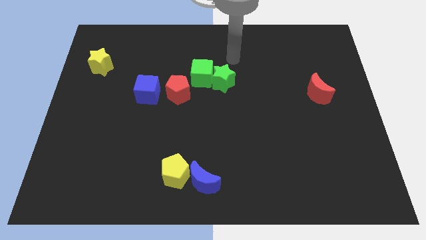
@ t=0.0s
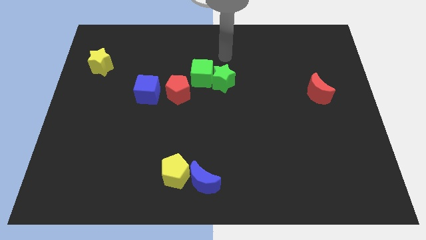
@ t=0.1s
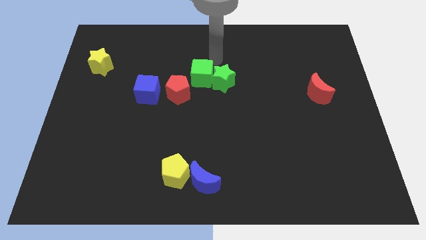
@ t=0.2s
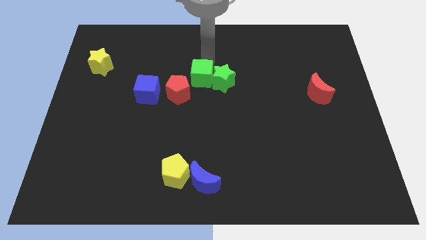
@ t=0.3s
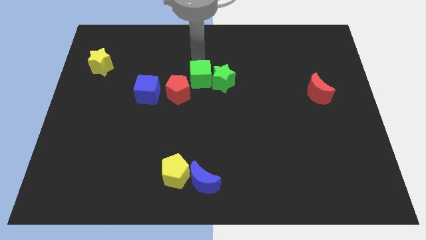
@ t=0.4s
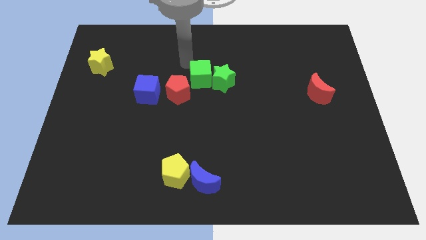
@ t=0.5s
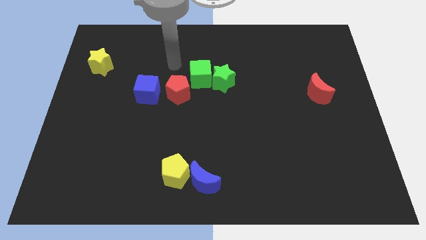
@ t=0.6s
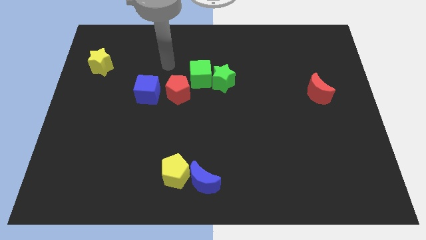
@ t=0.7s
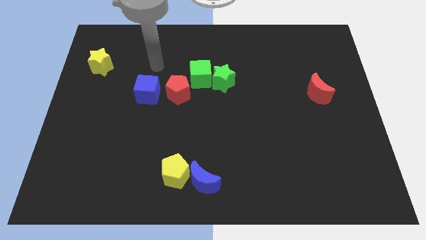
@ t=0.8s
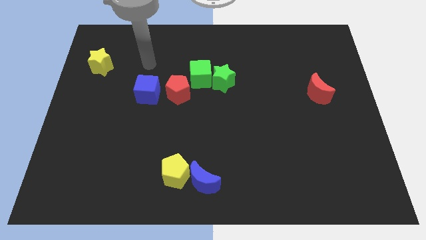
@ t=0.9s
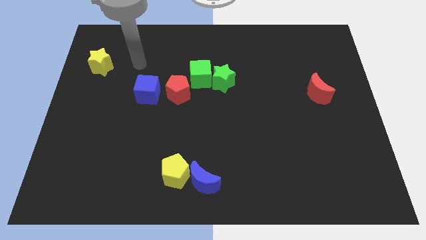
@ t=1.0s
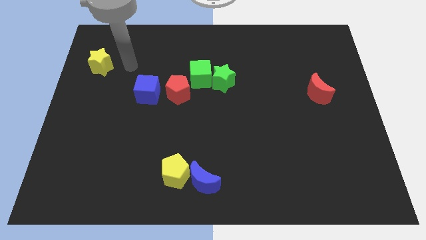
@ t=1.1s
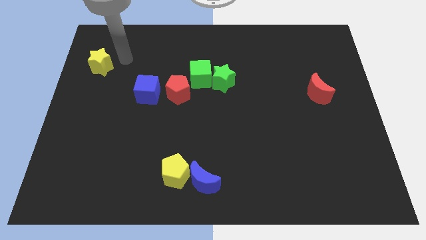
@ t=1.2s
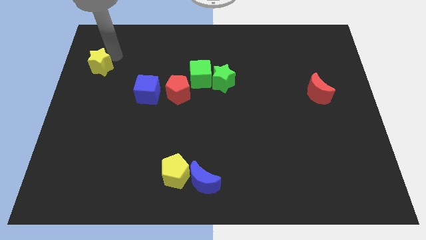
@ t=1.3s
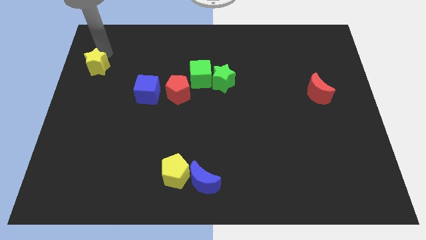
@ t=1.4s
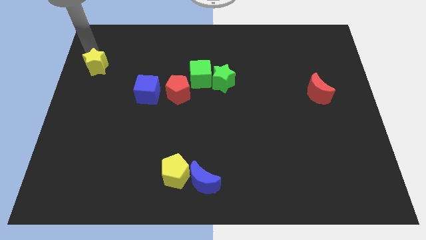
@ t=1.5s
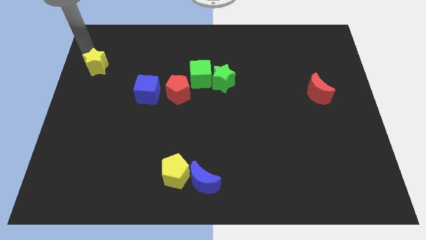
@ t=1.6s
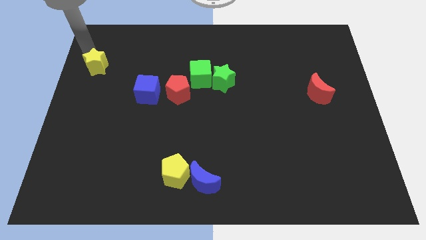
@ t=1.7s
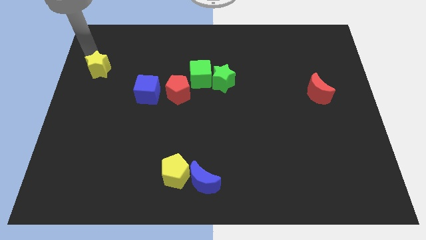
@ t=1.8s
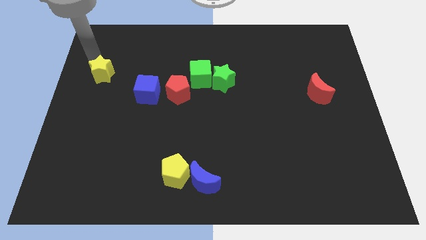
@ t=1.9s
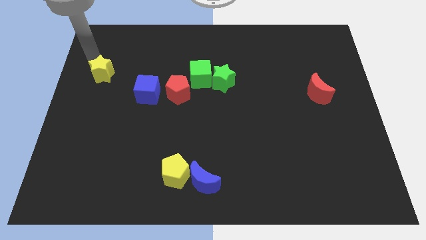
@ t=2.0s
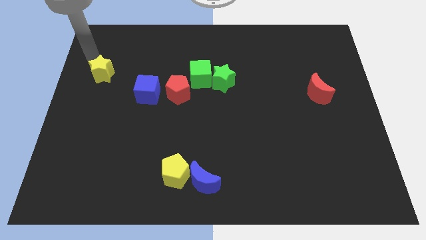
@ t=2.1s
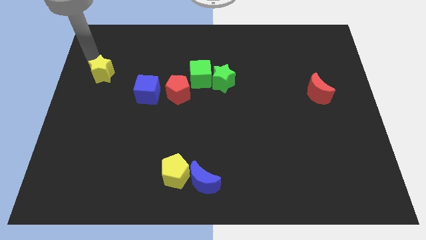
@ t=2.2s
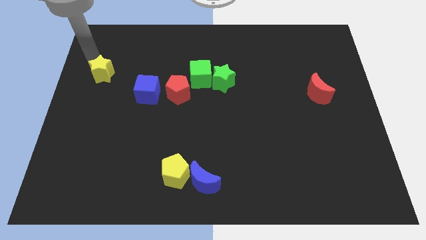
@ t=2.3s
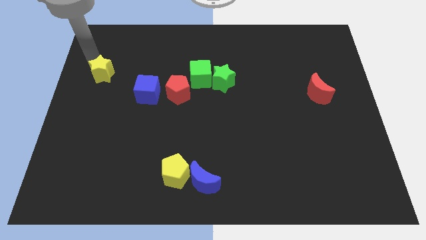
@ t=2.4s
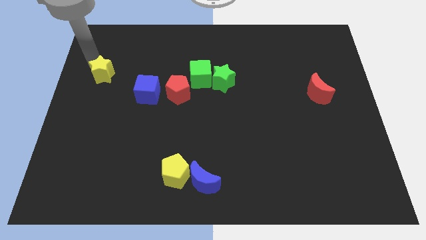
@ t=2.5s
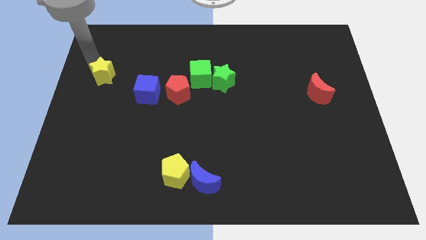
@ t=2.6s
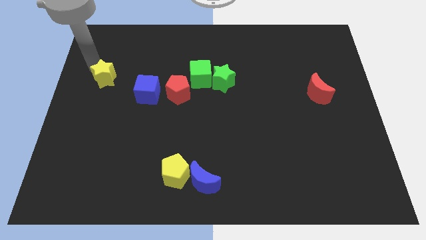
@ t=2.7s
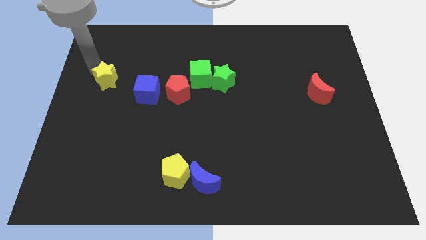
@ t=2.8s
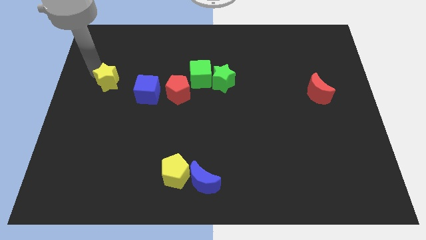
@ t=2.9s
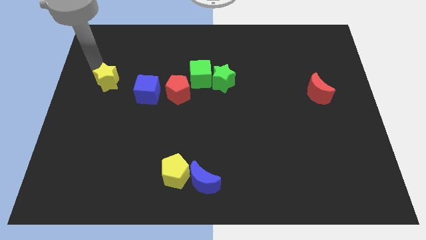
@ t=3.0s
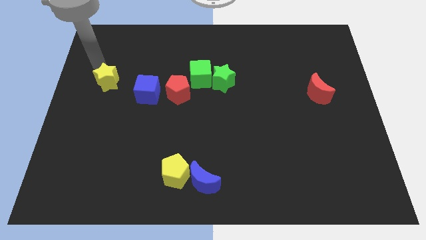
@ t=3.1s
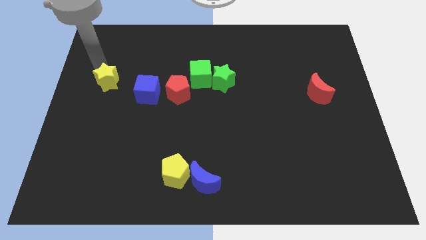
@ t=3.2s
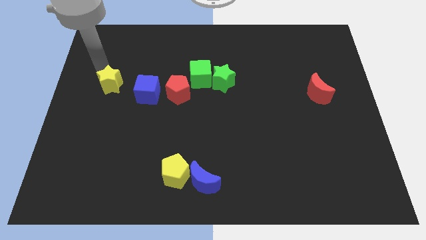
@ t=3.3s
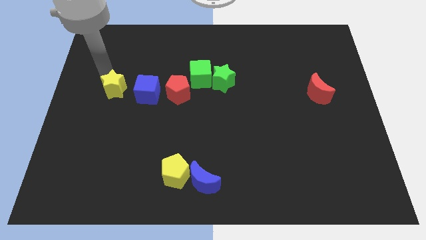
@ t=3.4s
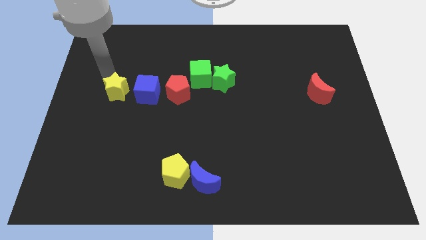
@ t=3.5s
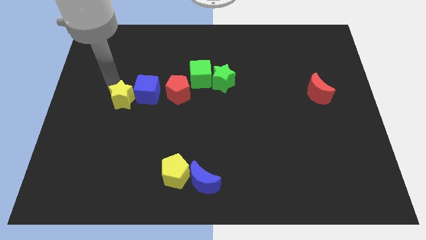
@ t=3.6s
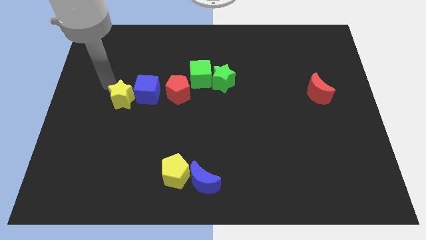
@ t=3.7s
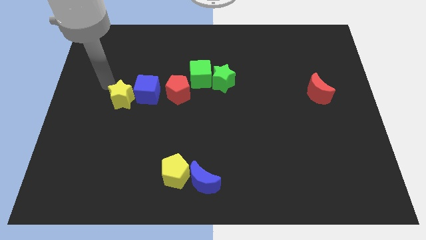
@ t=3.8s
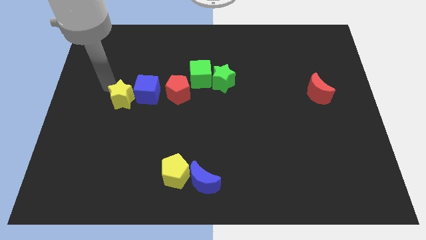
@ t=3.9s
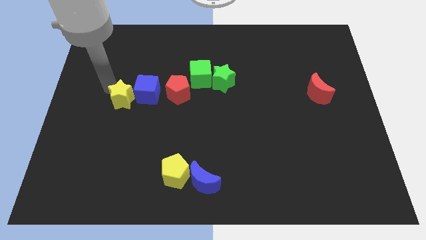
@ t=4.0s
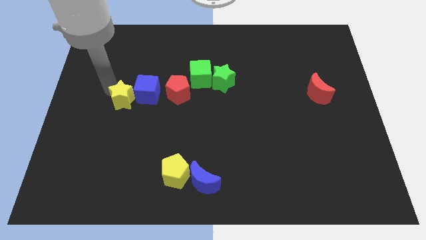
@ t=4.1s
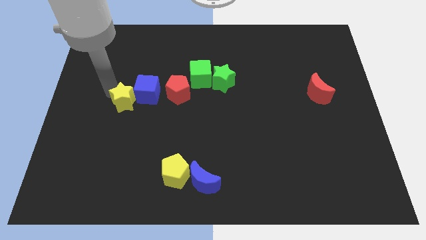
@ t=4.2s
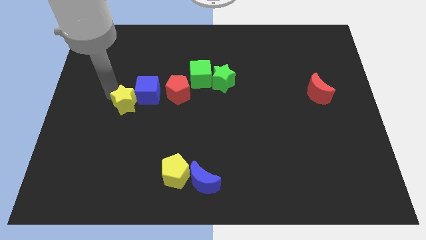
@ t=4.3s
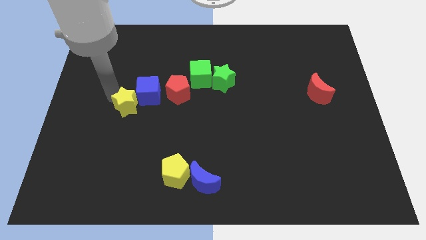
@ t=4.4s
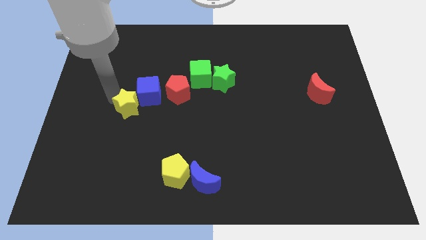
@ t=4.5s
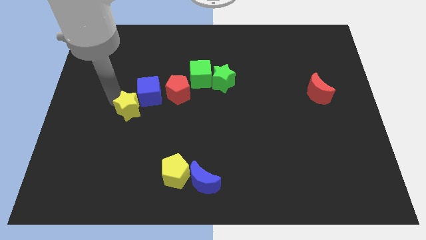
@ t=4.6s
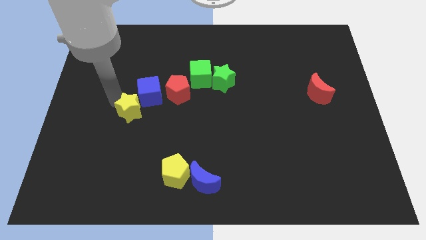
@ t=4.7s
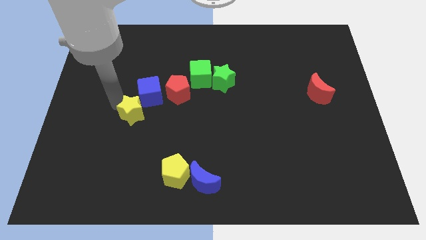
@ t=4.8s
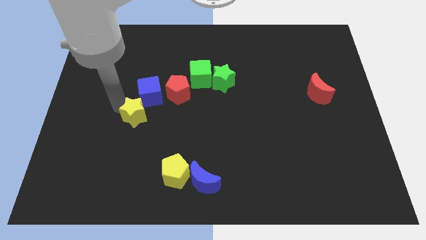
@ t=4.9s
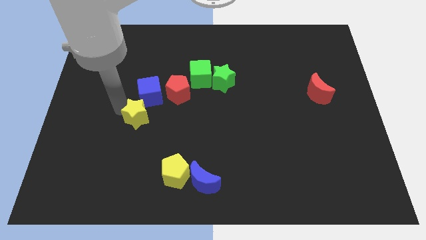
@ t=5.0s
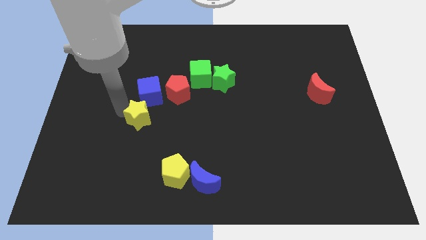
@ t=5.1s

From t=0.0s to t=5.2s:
move the yellow star downwards and right

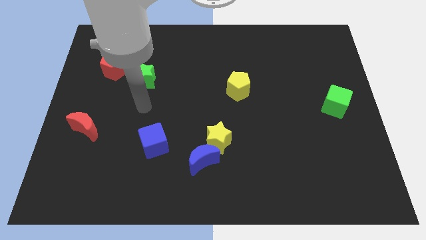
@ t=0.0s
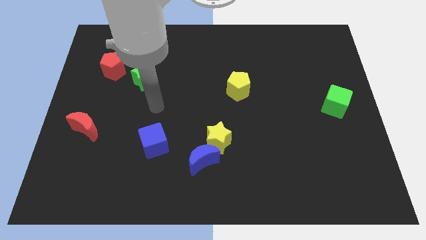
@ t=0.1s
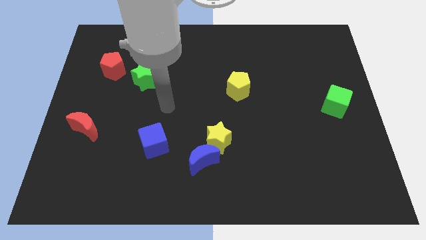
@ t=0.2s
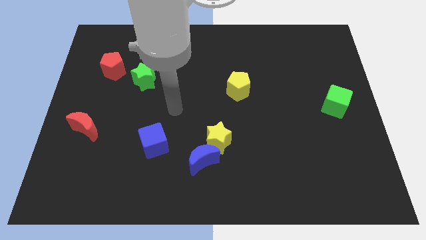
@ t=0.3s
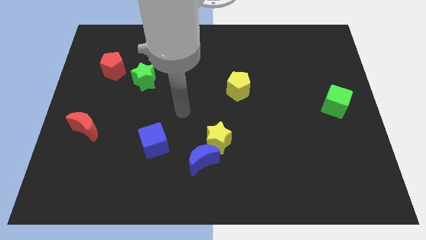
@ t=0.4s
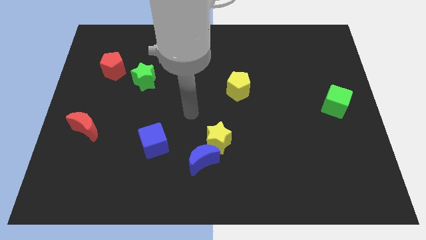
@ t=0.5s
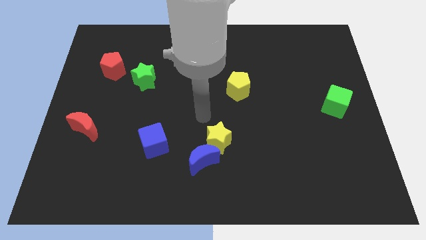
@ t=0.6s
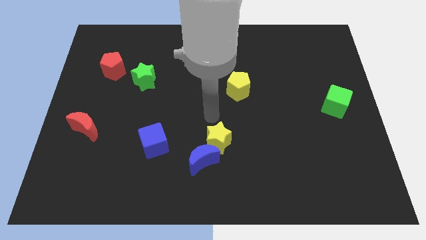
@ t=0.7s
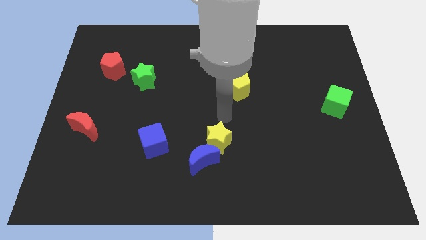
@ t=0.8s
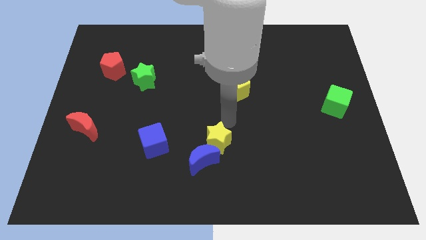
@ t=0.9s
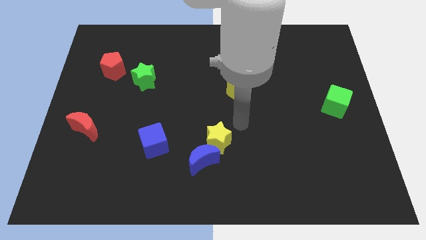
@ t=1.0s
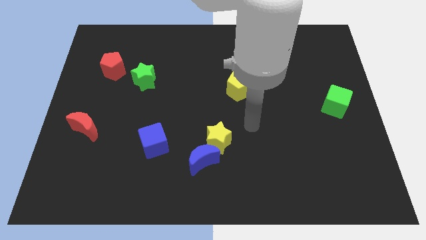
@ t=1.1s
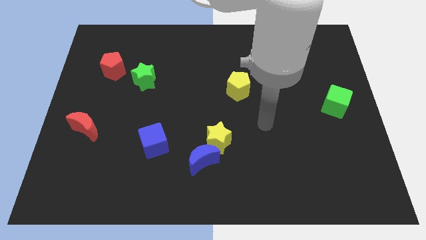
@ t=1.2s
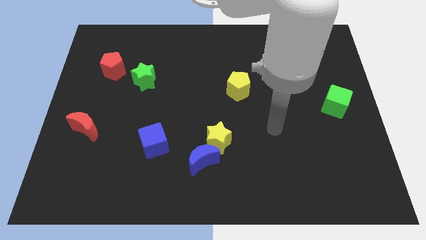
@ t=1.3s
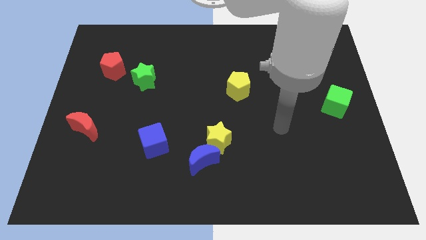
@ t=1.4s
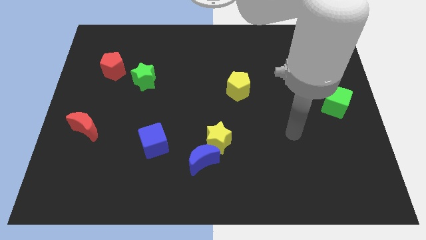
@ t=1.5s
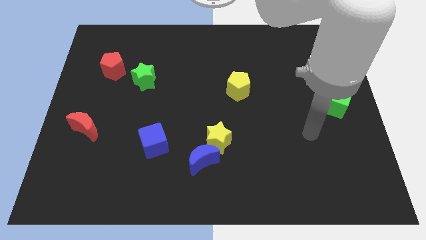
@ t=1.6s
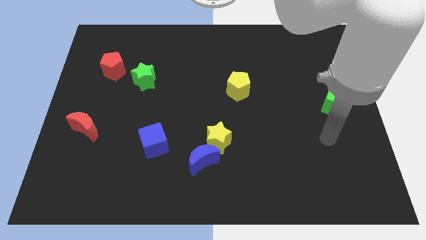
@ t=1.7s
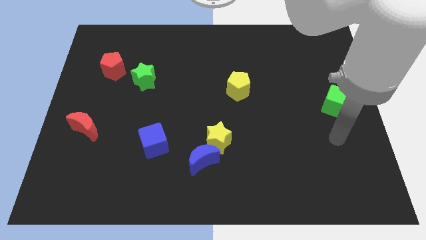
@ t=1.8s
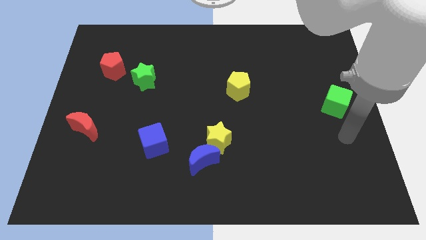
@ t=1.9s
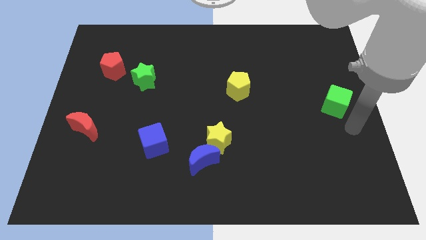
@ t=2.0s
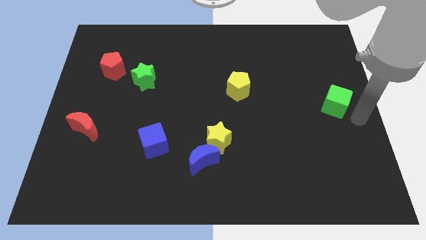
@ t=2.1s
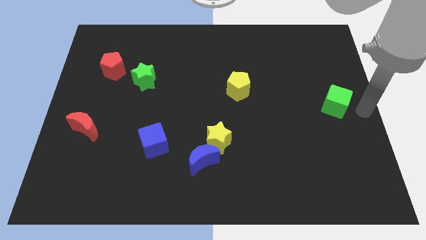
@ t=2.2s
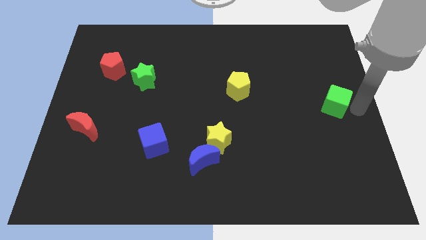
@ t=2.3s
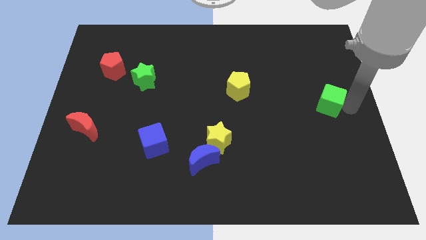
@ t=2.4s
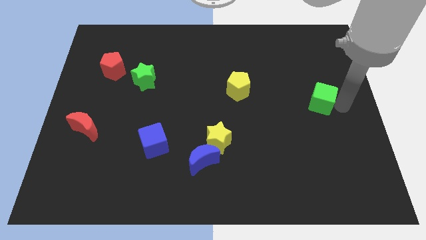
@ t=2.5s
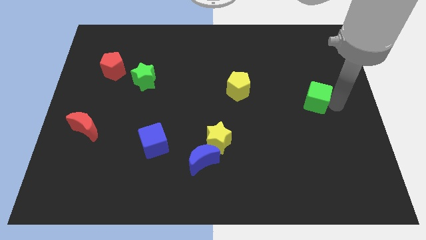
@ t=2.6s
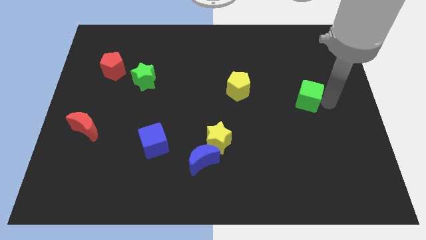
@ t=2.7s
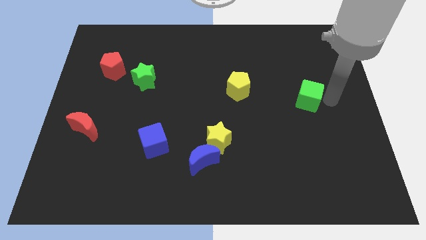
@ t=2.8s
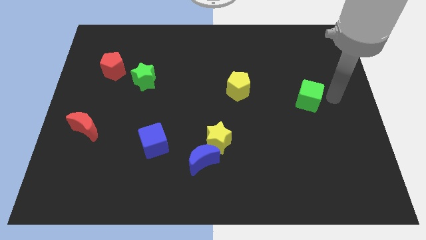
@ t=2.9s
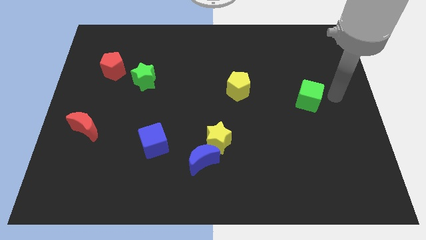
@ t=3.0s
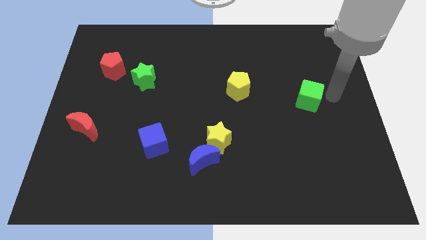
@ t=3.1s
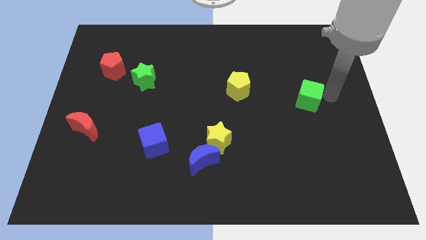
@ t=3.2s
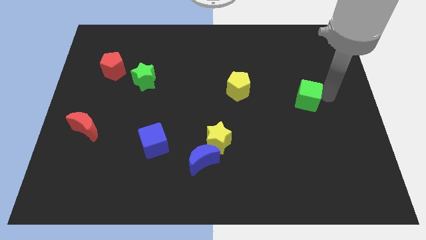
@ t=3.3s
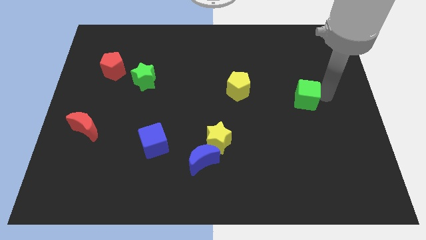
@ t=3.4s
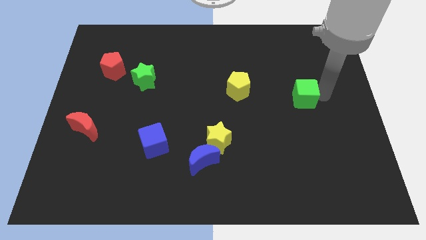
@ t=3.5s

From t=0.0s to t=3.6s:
slide the green cube to the left a little bit

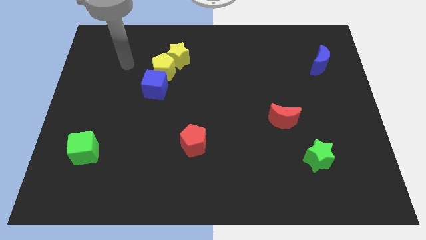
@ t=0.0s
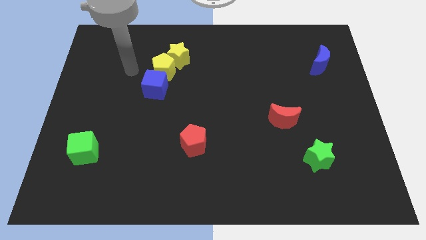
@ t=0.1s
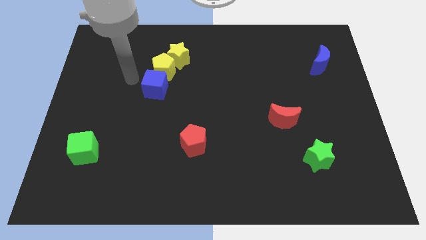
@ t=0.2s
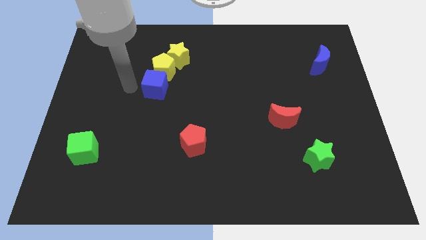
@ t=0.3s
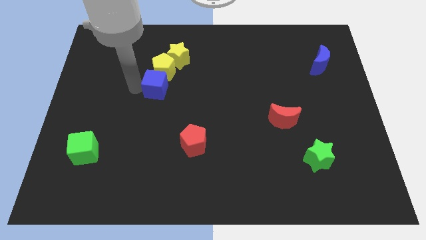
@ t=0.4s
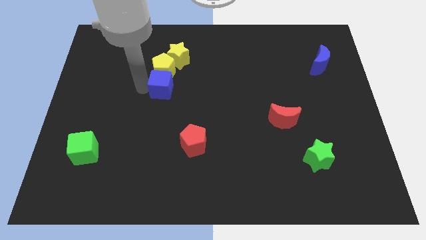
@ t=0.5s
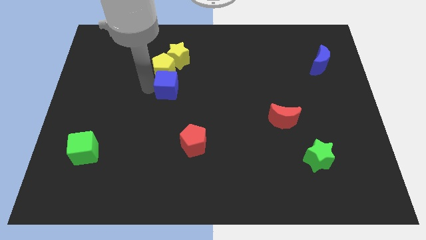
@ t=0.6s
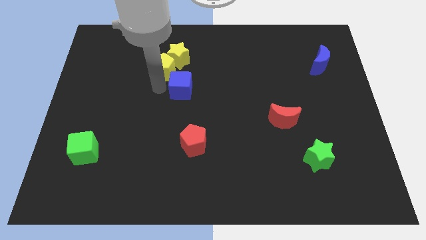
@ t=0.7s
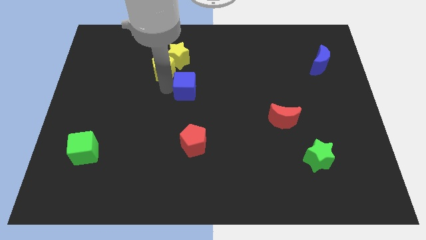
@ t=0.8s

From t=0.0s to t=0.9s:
move the blue cube to the right somewhat
